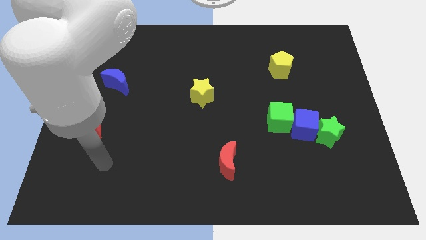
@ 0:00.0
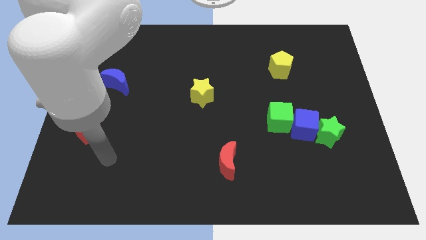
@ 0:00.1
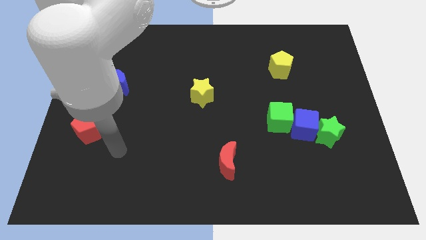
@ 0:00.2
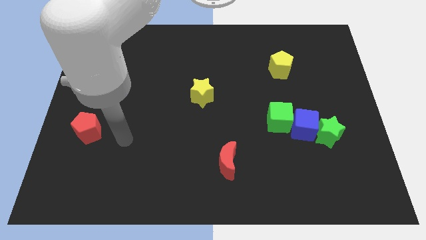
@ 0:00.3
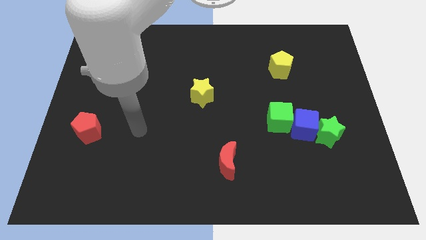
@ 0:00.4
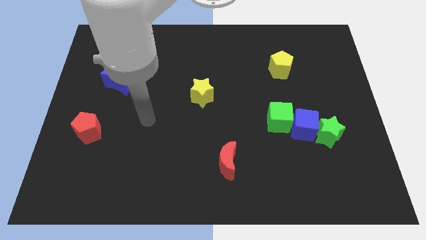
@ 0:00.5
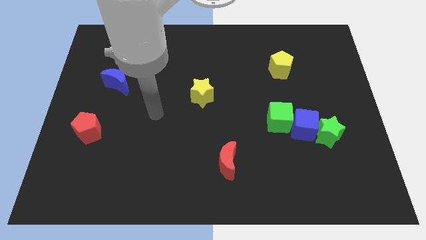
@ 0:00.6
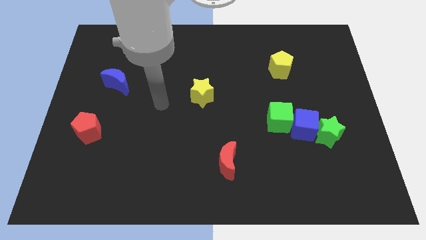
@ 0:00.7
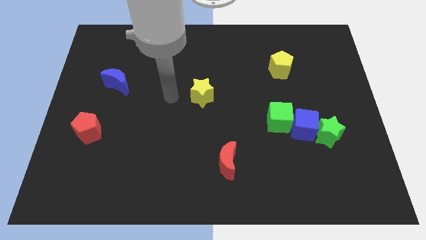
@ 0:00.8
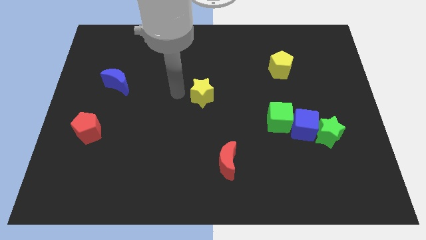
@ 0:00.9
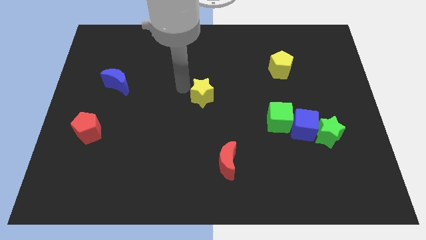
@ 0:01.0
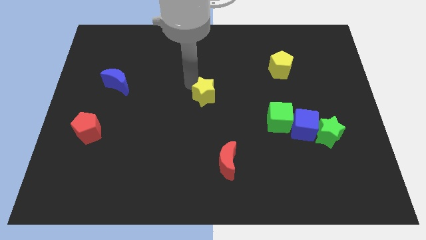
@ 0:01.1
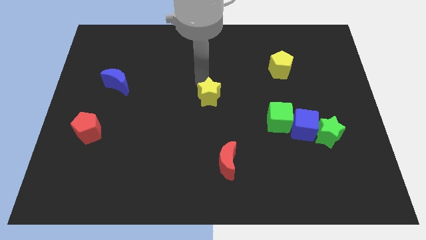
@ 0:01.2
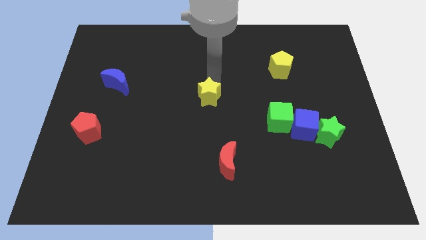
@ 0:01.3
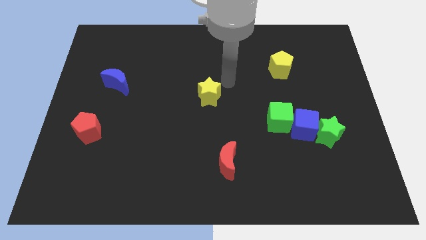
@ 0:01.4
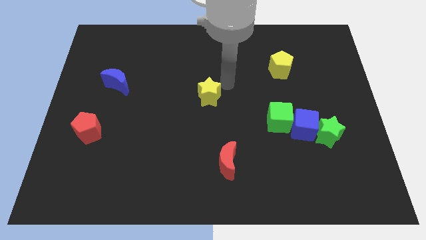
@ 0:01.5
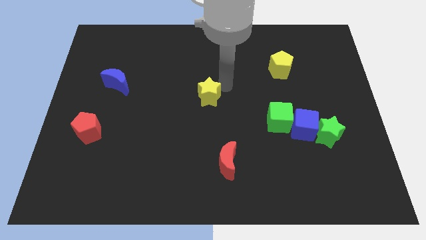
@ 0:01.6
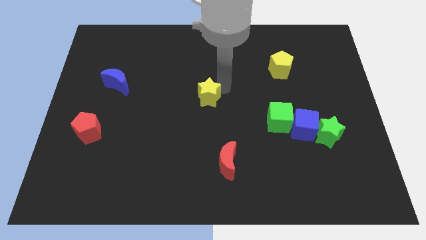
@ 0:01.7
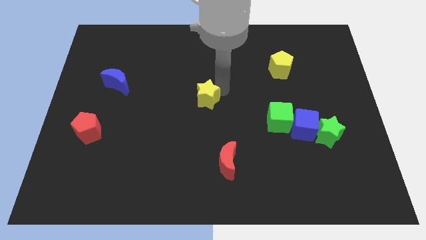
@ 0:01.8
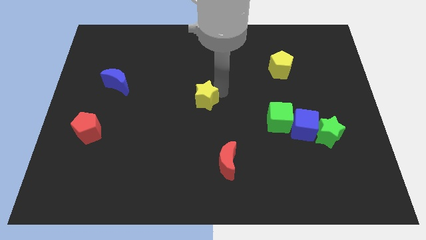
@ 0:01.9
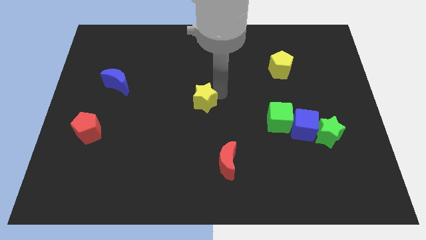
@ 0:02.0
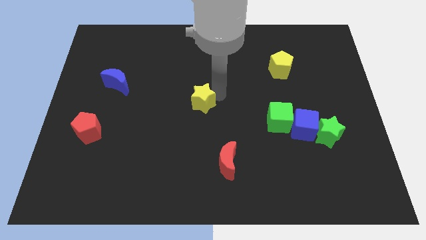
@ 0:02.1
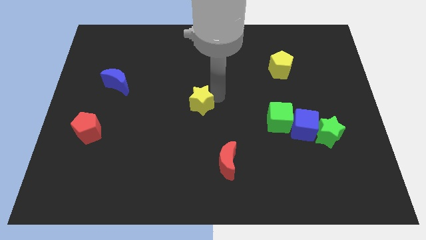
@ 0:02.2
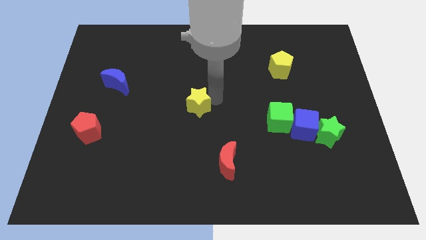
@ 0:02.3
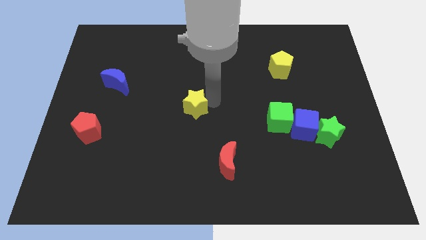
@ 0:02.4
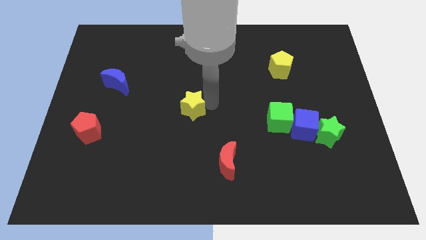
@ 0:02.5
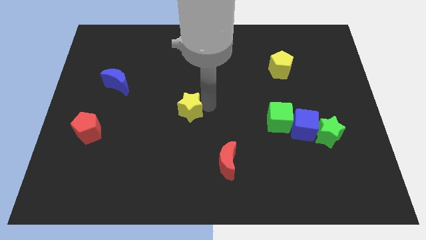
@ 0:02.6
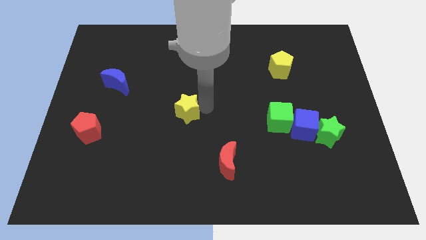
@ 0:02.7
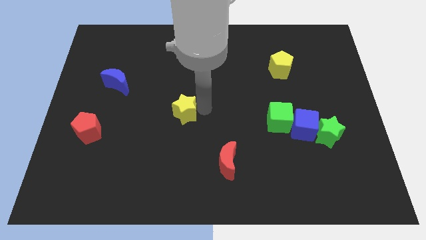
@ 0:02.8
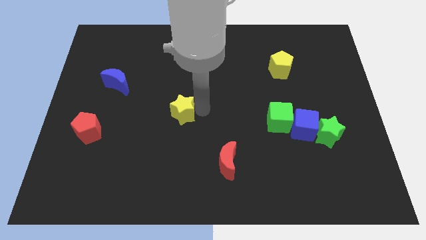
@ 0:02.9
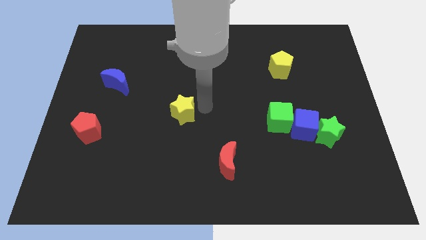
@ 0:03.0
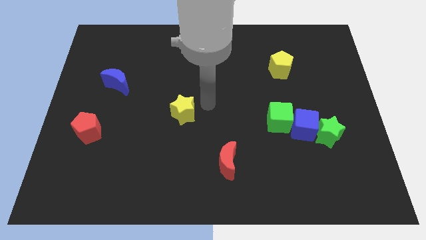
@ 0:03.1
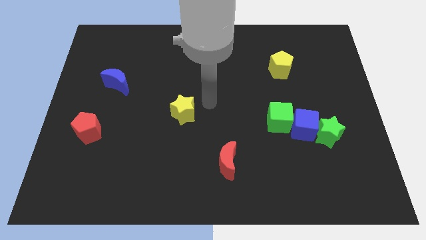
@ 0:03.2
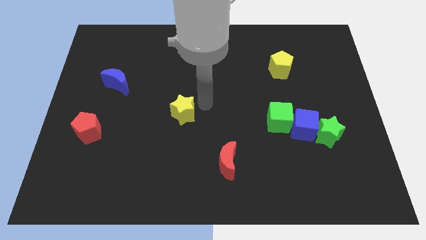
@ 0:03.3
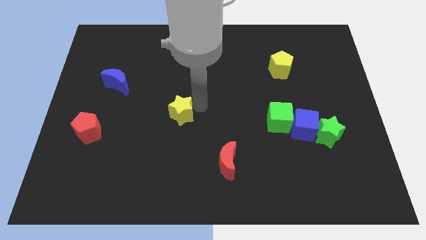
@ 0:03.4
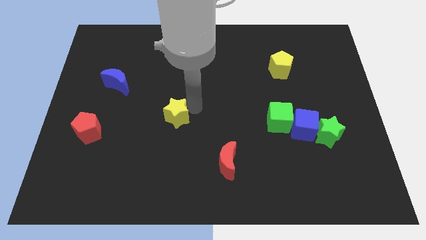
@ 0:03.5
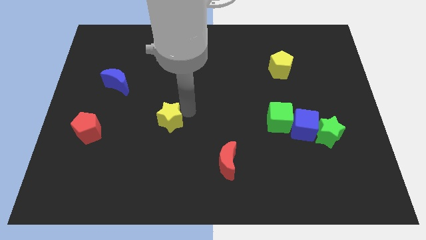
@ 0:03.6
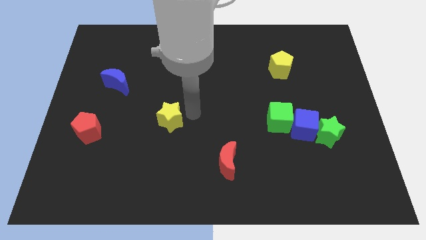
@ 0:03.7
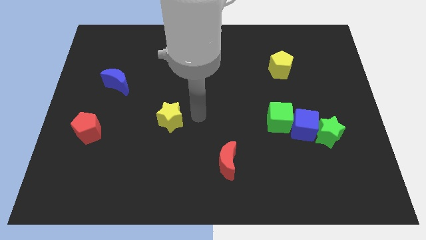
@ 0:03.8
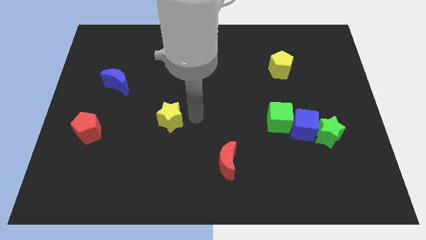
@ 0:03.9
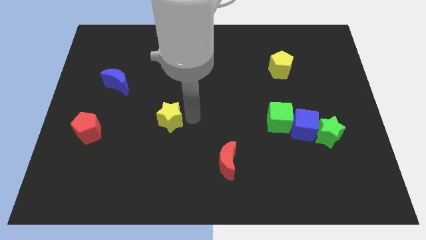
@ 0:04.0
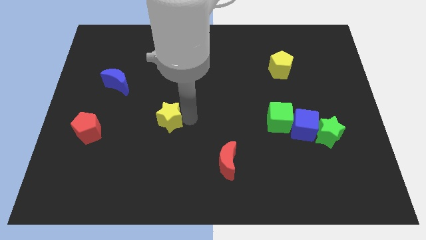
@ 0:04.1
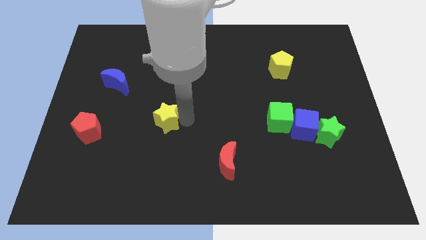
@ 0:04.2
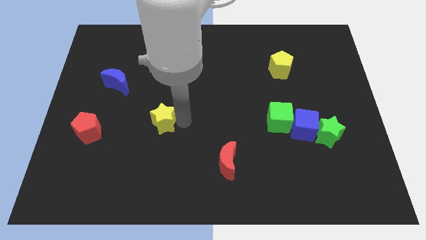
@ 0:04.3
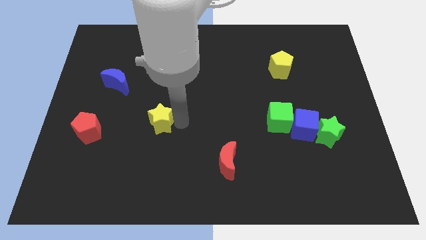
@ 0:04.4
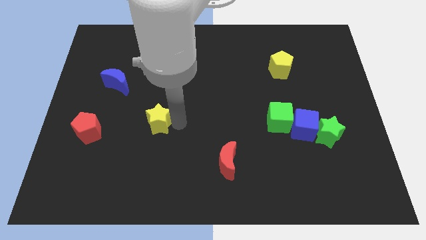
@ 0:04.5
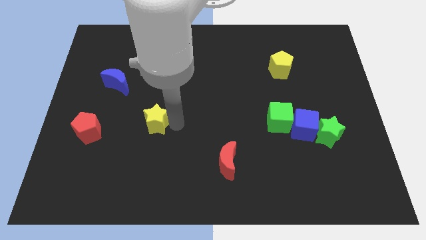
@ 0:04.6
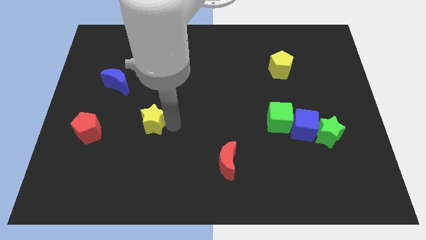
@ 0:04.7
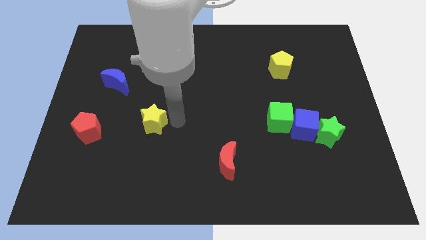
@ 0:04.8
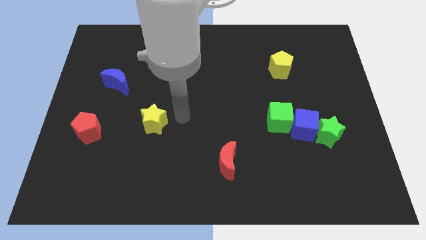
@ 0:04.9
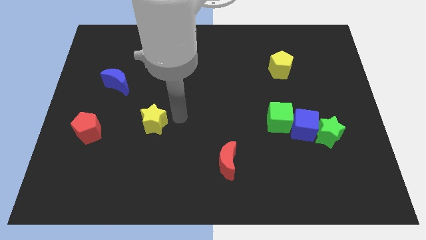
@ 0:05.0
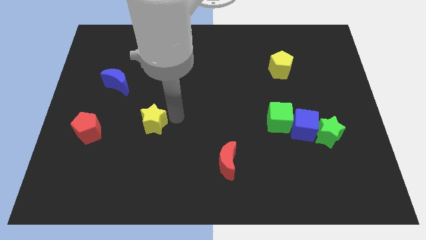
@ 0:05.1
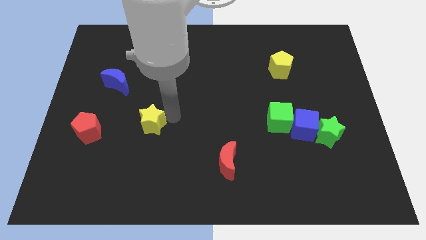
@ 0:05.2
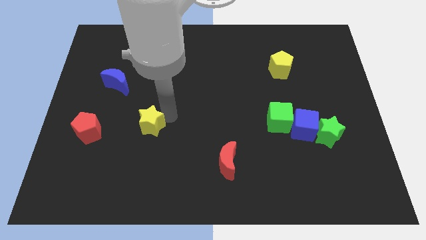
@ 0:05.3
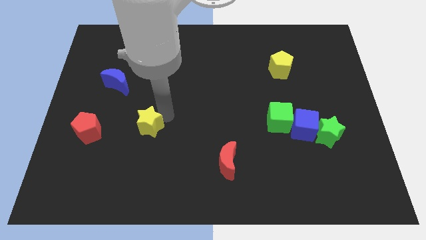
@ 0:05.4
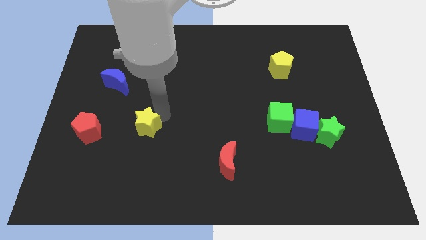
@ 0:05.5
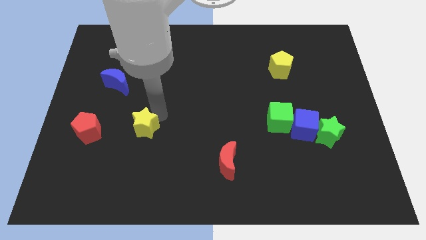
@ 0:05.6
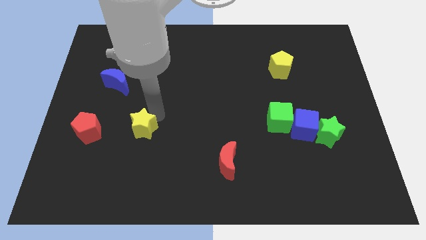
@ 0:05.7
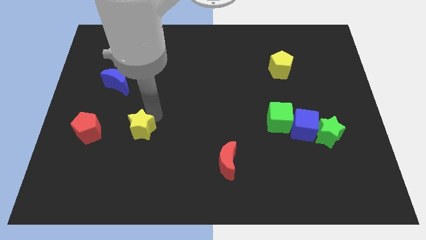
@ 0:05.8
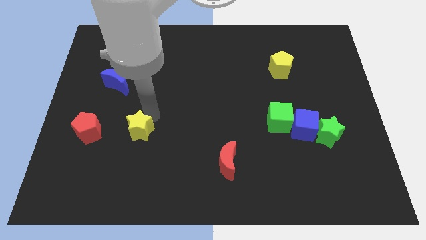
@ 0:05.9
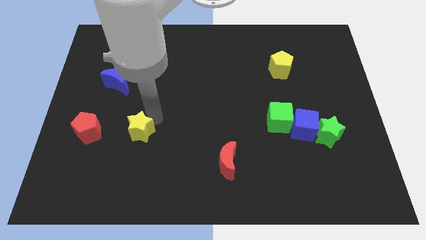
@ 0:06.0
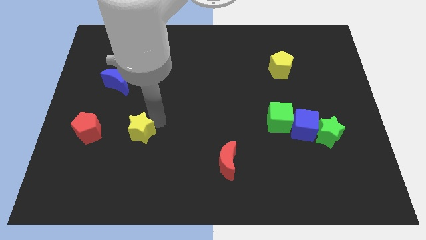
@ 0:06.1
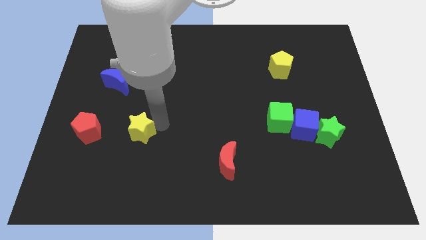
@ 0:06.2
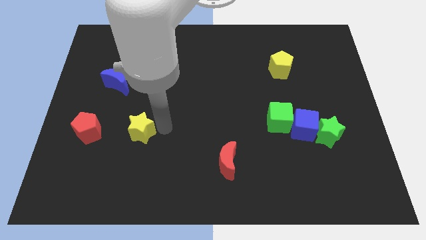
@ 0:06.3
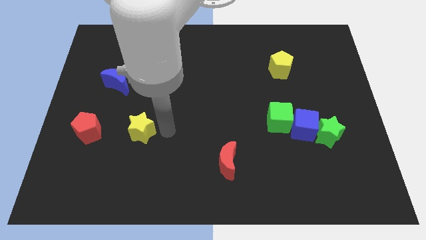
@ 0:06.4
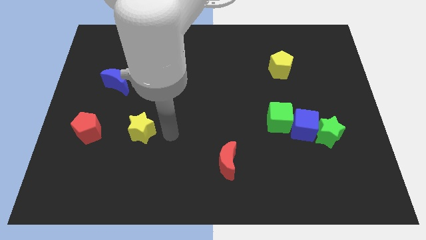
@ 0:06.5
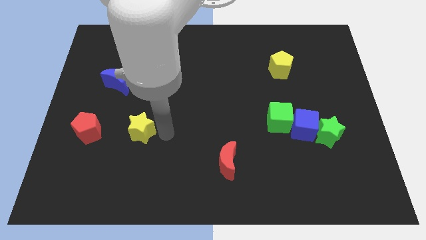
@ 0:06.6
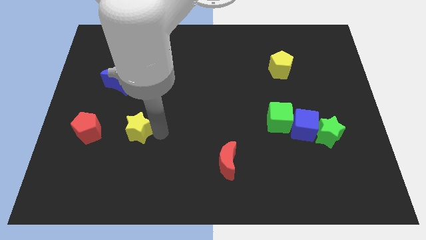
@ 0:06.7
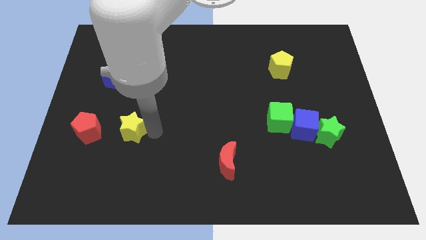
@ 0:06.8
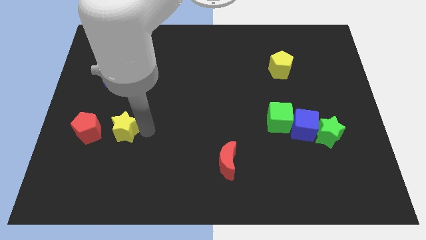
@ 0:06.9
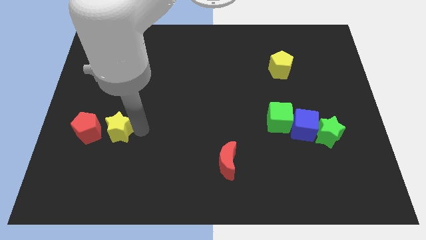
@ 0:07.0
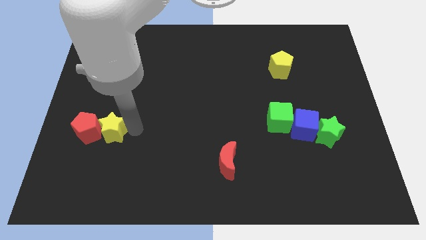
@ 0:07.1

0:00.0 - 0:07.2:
push the yellow star next to the red pentagon
